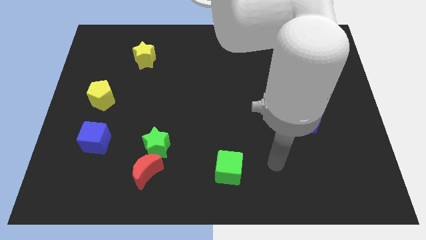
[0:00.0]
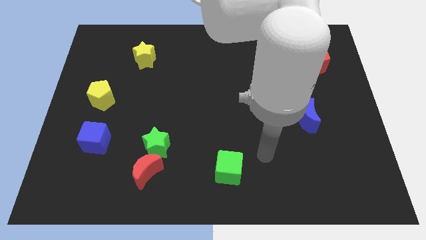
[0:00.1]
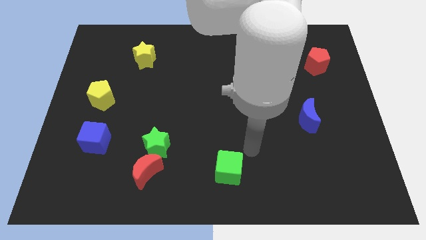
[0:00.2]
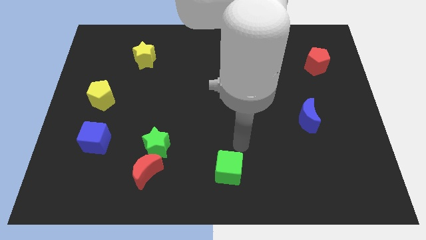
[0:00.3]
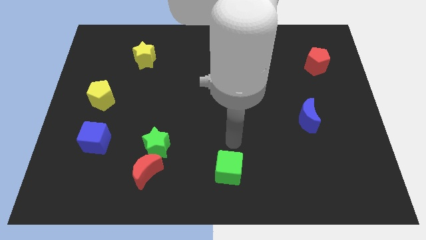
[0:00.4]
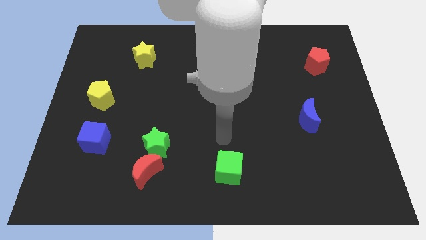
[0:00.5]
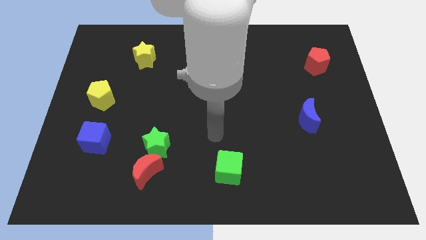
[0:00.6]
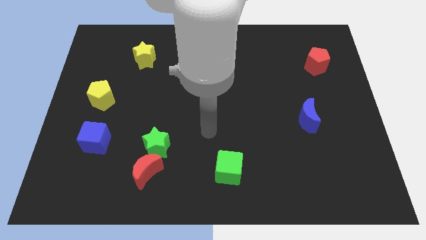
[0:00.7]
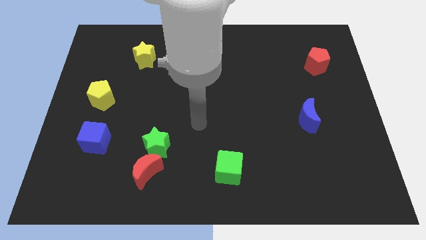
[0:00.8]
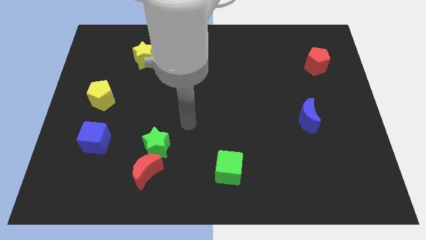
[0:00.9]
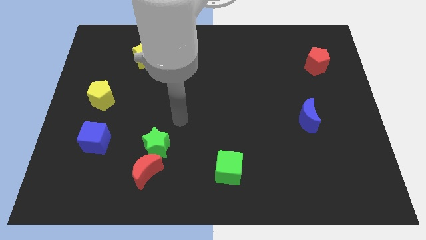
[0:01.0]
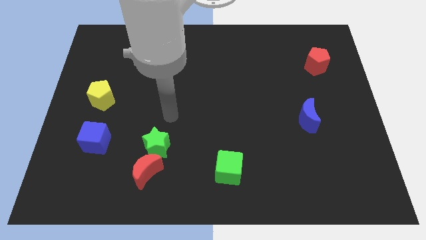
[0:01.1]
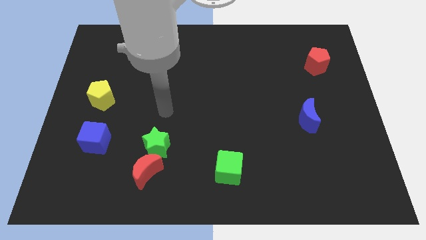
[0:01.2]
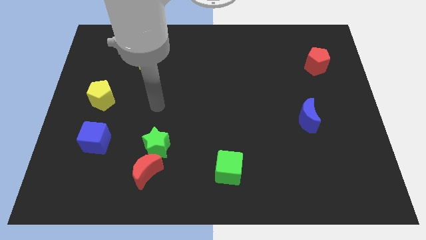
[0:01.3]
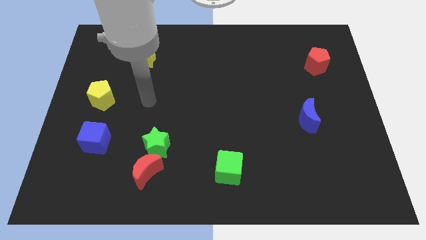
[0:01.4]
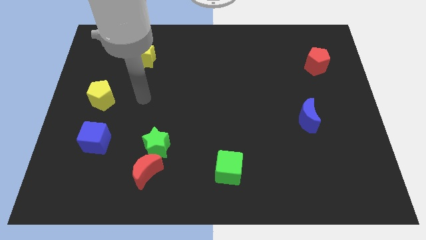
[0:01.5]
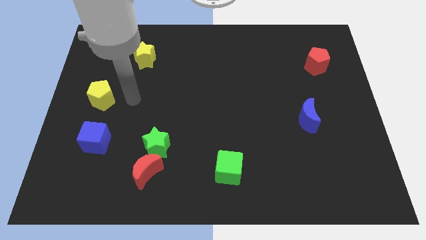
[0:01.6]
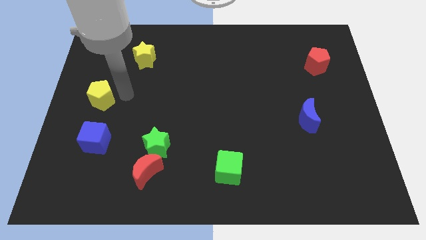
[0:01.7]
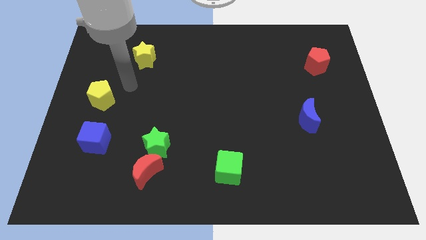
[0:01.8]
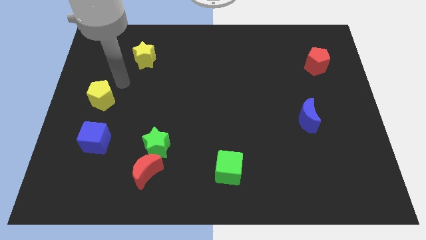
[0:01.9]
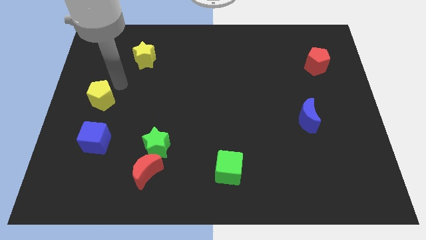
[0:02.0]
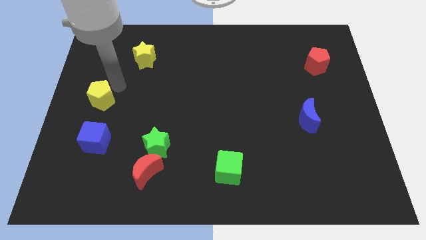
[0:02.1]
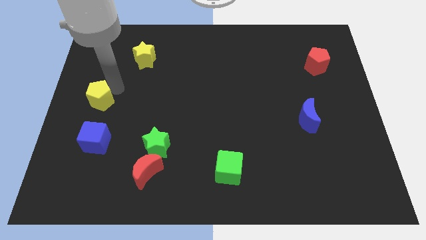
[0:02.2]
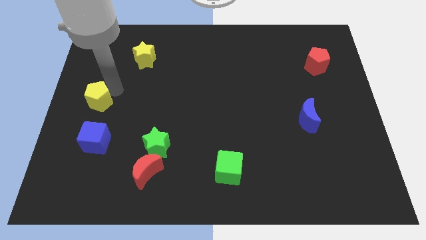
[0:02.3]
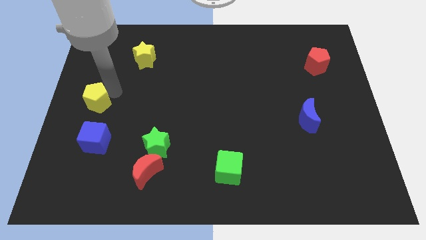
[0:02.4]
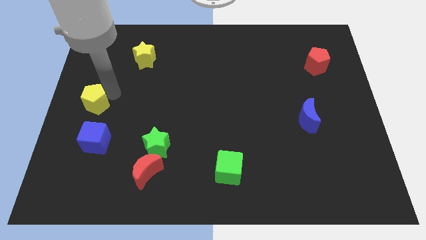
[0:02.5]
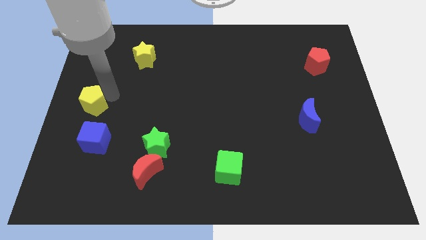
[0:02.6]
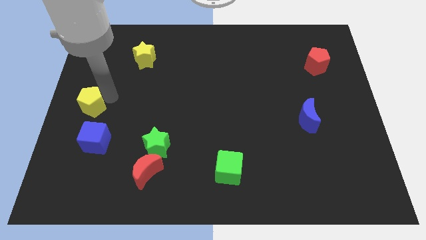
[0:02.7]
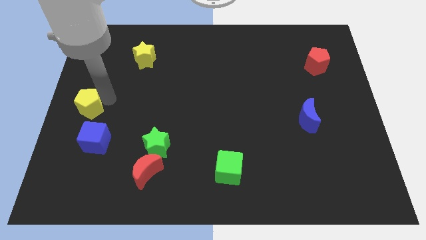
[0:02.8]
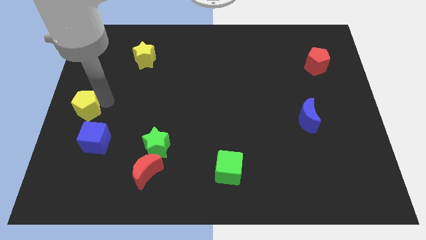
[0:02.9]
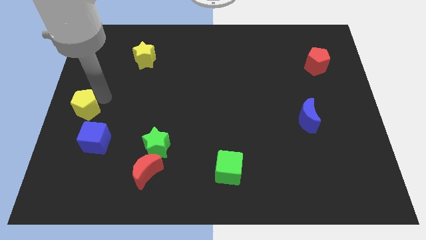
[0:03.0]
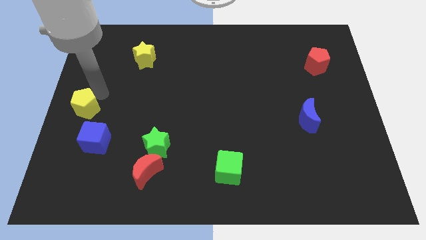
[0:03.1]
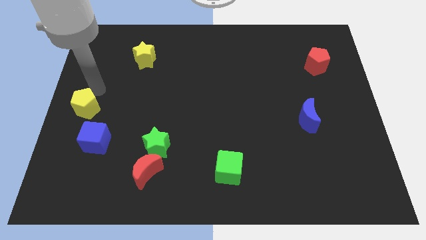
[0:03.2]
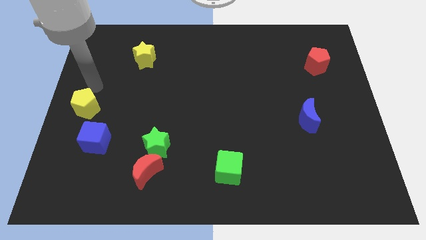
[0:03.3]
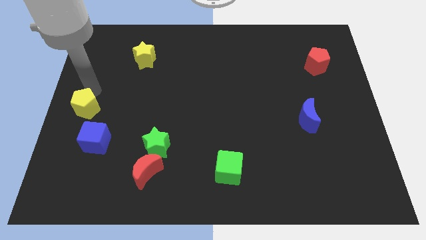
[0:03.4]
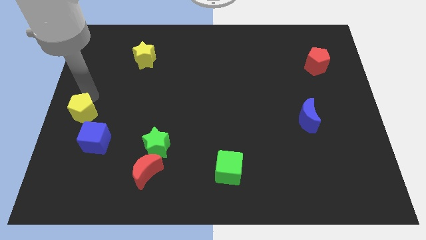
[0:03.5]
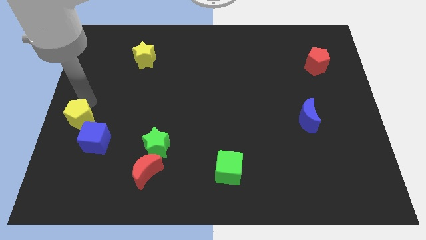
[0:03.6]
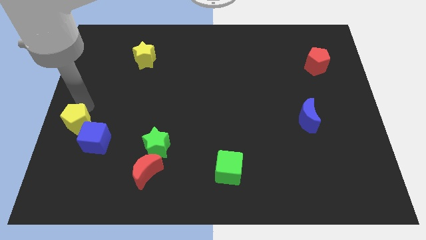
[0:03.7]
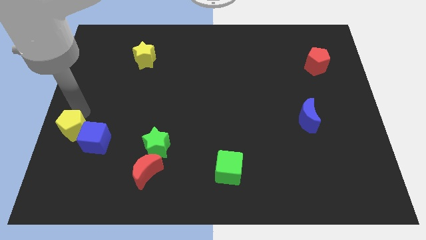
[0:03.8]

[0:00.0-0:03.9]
slightly move the yellow pentagon downwards

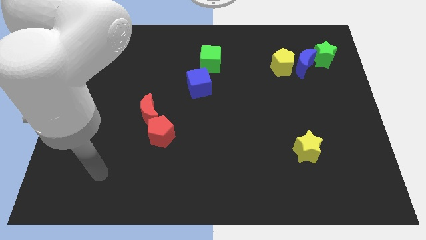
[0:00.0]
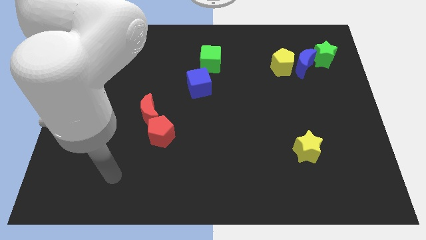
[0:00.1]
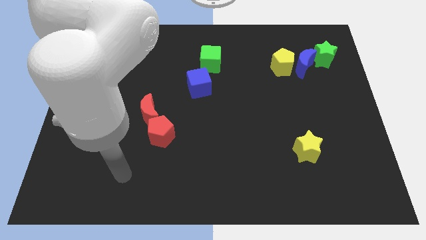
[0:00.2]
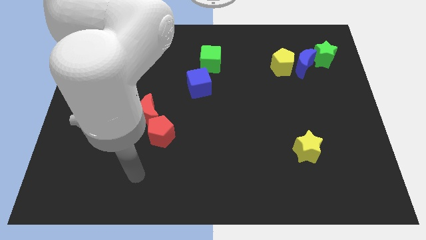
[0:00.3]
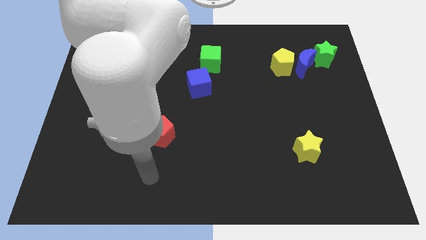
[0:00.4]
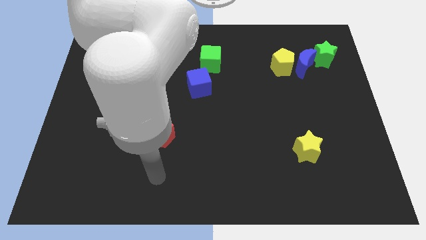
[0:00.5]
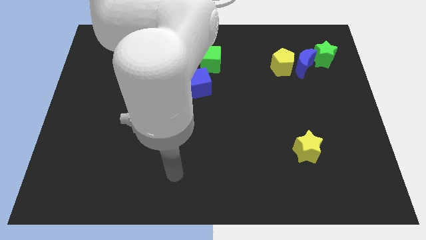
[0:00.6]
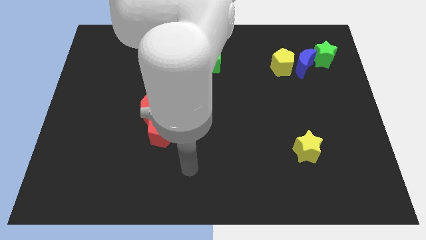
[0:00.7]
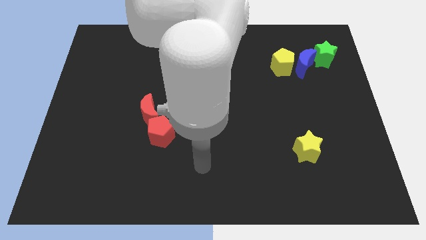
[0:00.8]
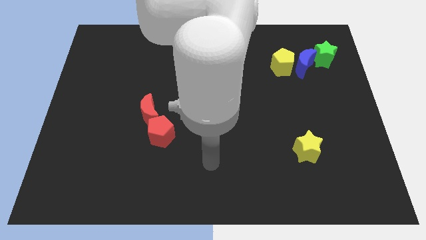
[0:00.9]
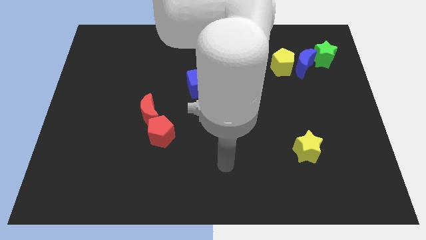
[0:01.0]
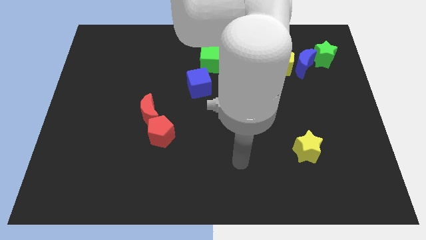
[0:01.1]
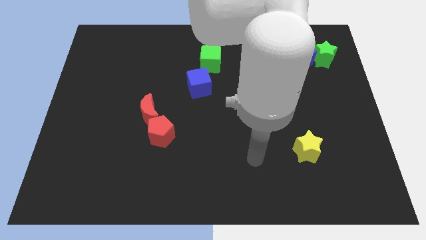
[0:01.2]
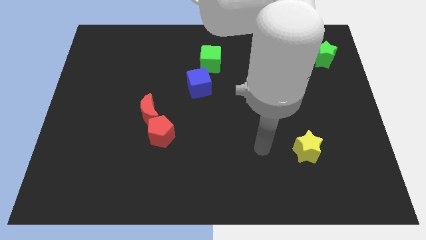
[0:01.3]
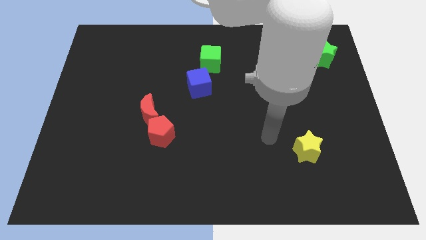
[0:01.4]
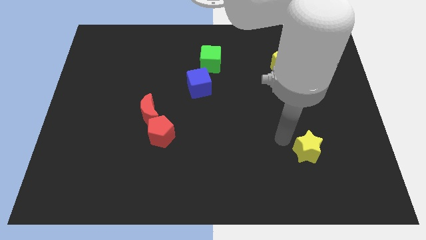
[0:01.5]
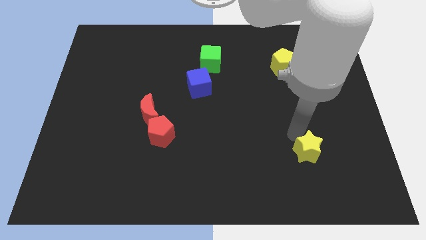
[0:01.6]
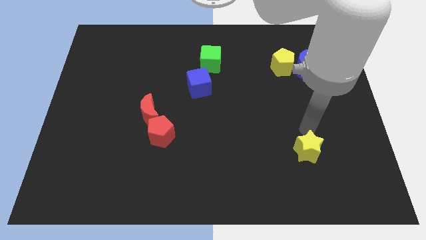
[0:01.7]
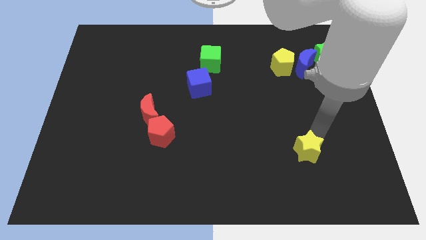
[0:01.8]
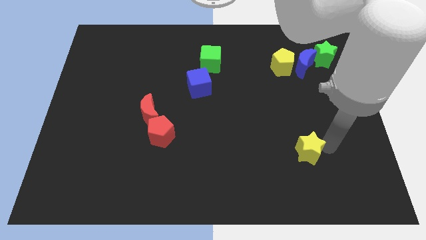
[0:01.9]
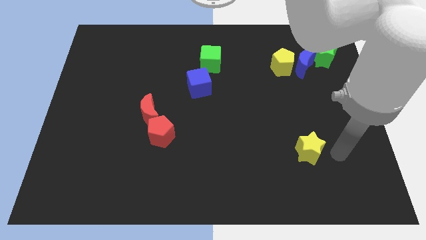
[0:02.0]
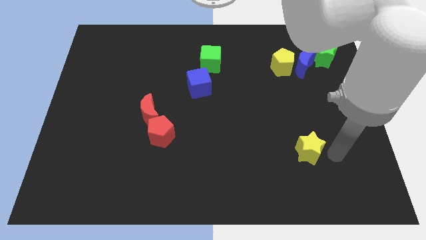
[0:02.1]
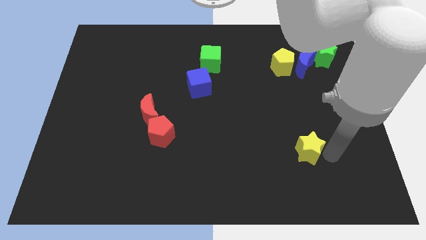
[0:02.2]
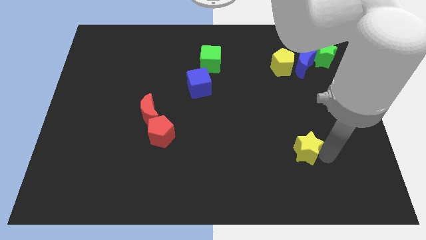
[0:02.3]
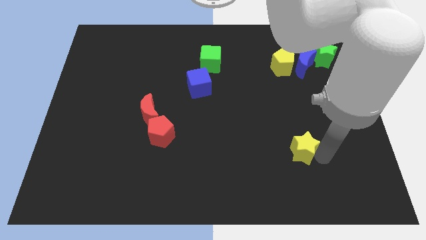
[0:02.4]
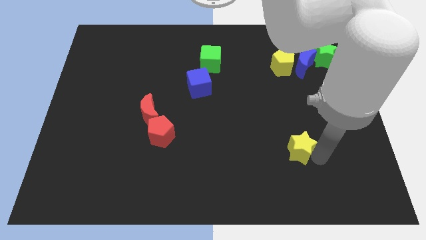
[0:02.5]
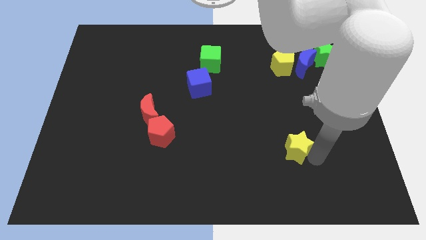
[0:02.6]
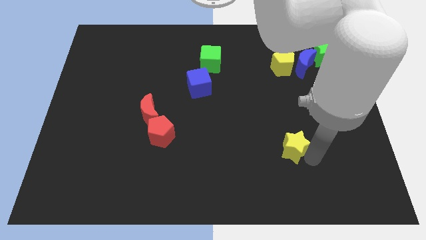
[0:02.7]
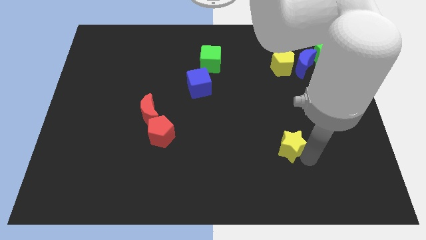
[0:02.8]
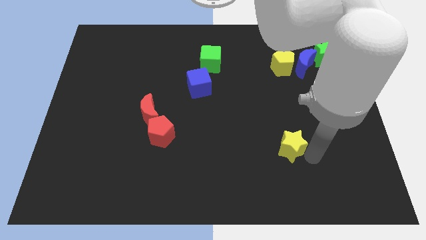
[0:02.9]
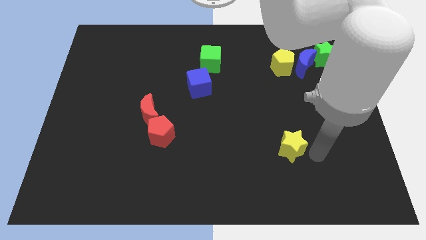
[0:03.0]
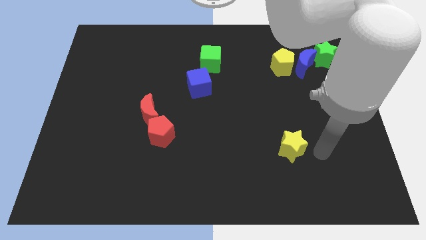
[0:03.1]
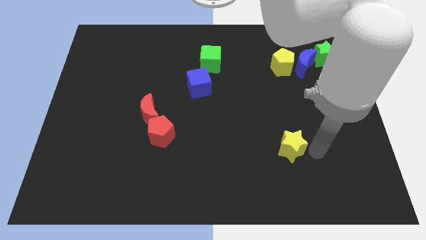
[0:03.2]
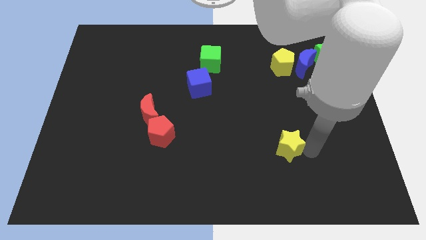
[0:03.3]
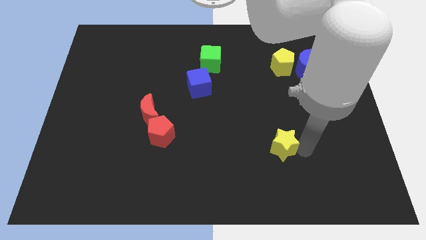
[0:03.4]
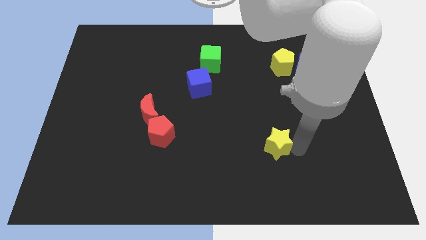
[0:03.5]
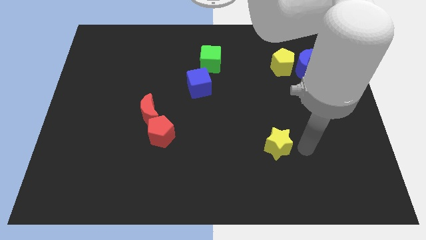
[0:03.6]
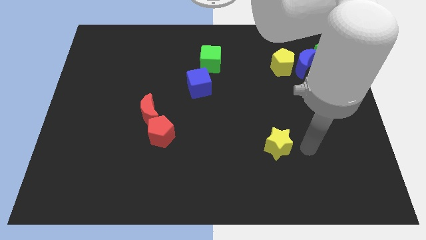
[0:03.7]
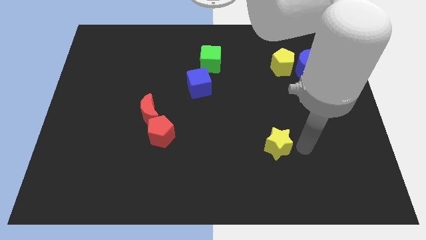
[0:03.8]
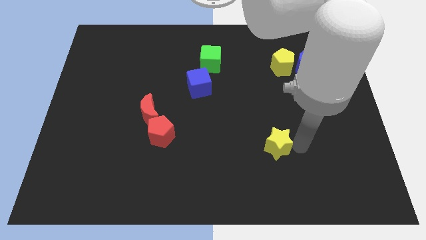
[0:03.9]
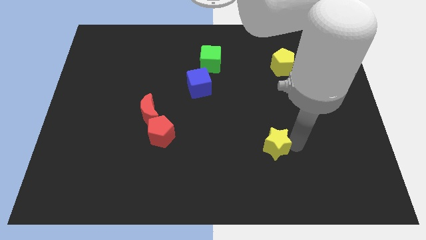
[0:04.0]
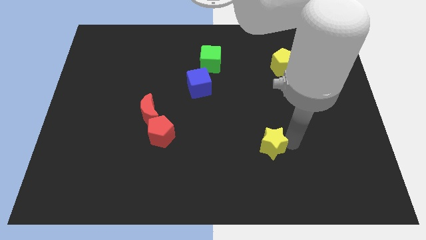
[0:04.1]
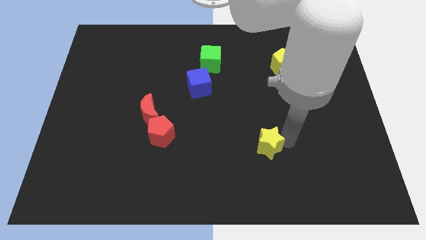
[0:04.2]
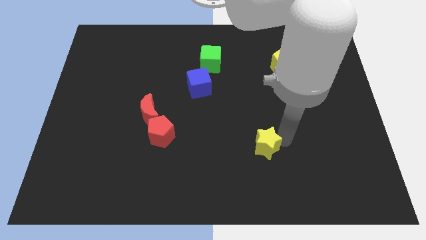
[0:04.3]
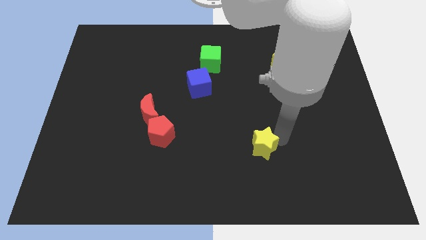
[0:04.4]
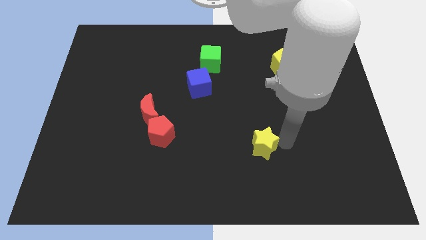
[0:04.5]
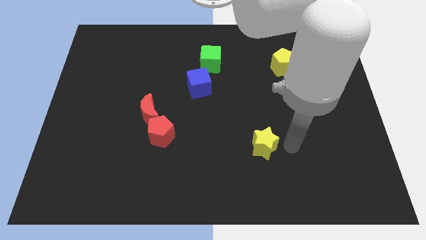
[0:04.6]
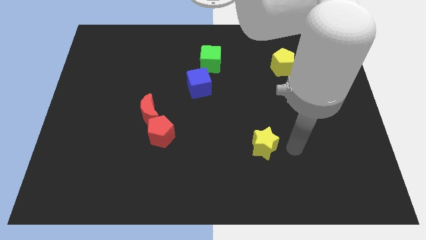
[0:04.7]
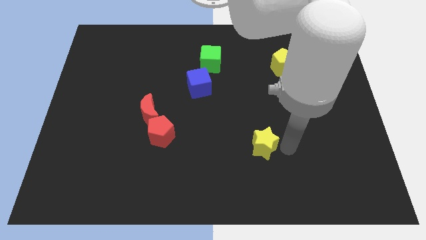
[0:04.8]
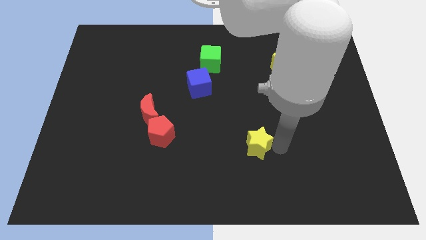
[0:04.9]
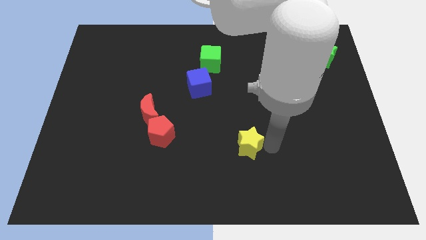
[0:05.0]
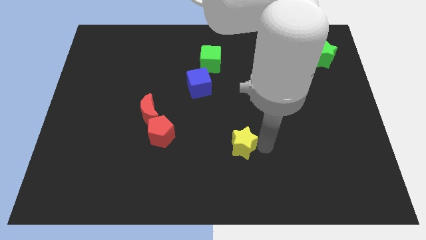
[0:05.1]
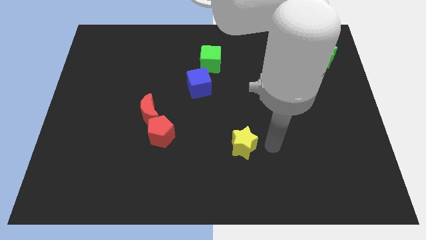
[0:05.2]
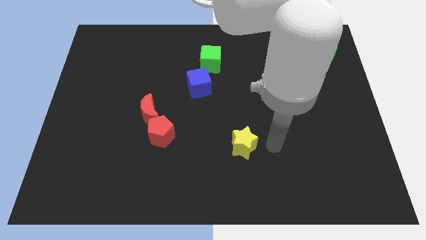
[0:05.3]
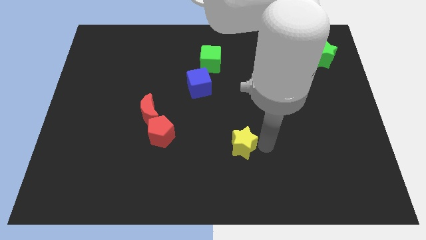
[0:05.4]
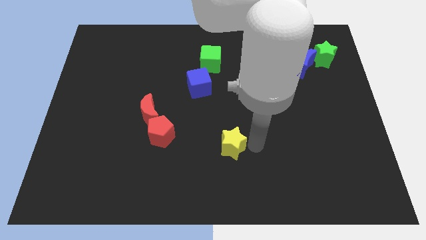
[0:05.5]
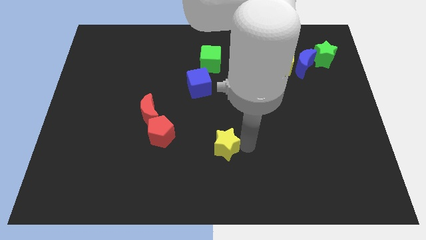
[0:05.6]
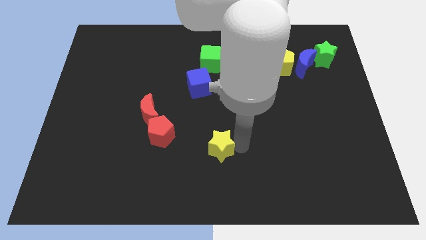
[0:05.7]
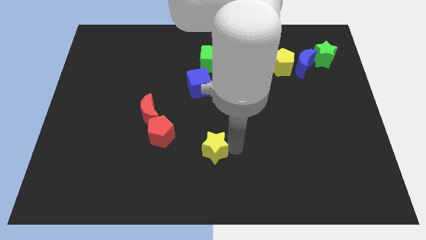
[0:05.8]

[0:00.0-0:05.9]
move the yellow star left
